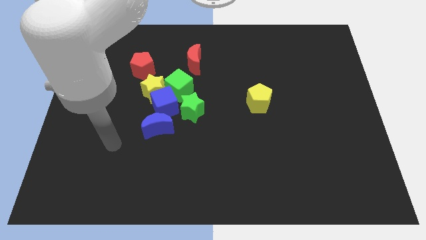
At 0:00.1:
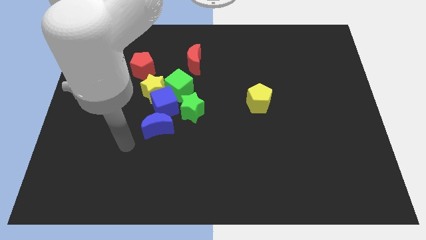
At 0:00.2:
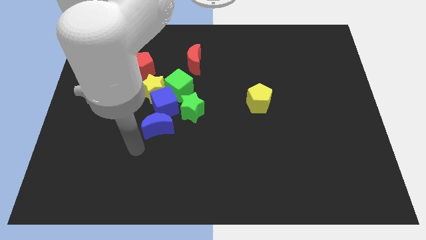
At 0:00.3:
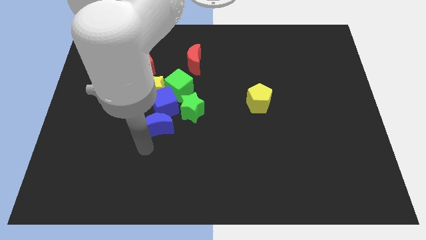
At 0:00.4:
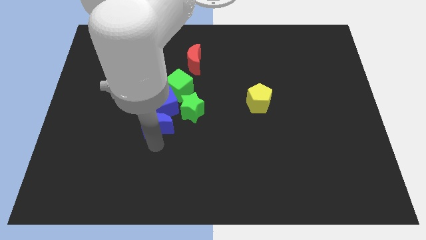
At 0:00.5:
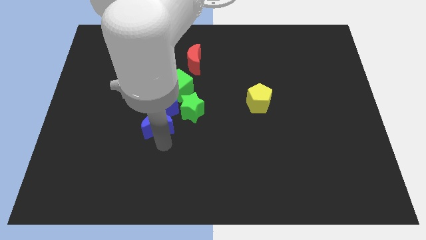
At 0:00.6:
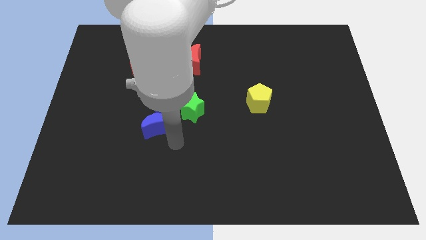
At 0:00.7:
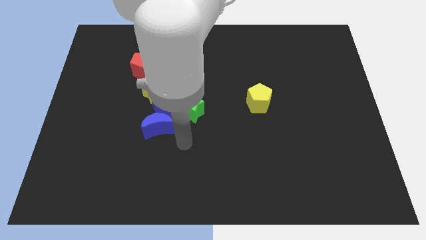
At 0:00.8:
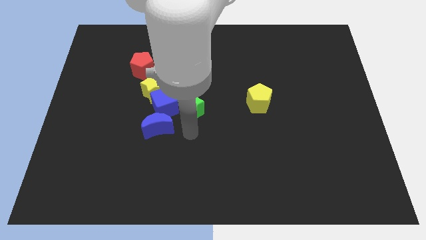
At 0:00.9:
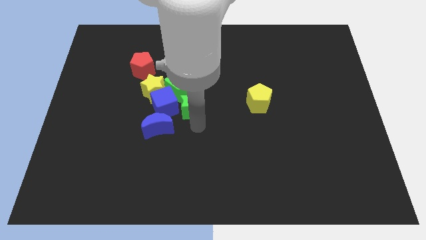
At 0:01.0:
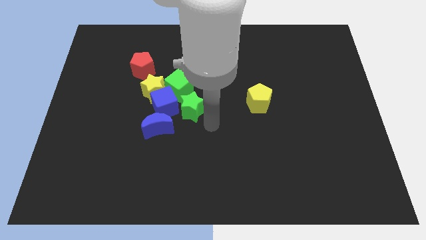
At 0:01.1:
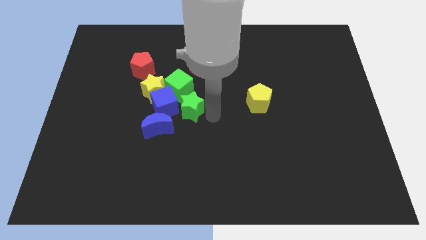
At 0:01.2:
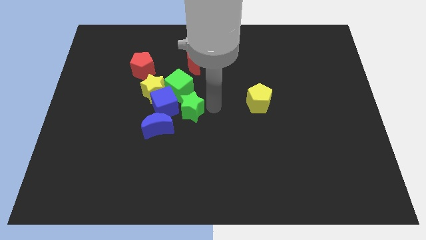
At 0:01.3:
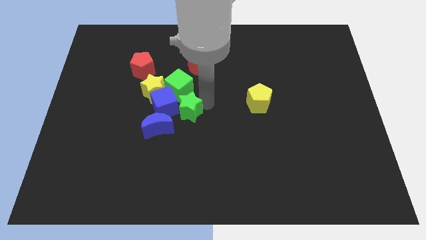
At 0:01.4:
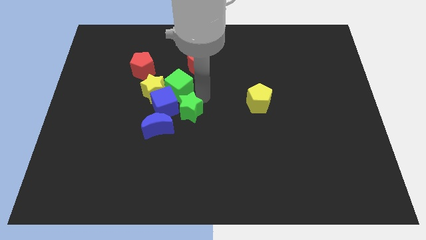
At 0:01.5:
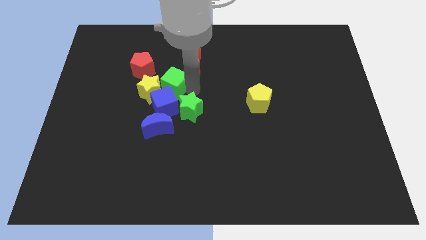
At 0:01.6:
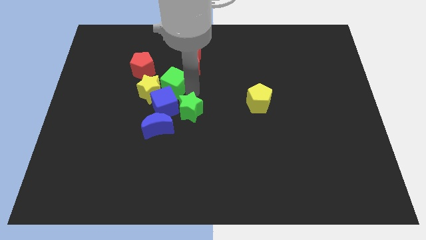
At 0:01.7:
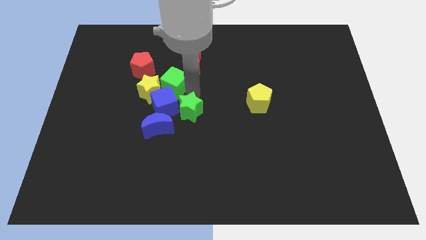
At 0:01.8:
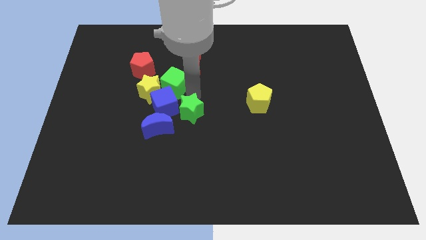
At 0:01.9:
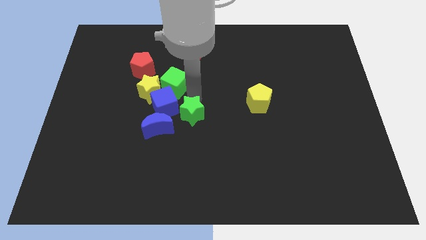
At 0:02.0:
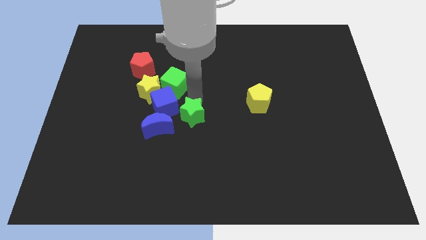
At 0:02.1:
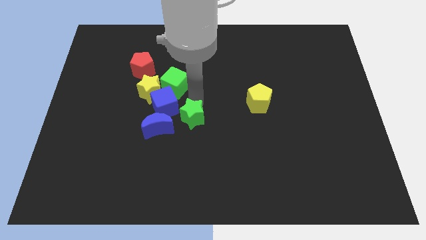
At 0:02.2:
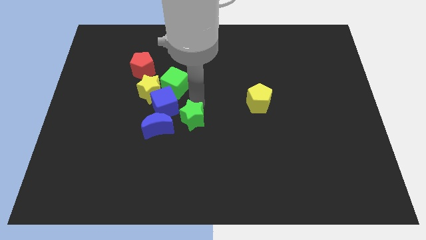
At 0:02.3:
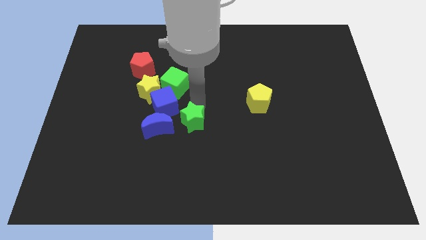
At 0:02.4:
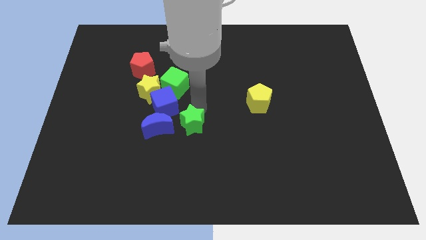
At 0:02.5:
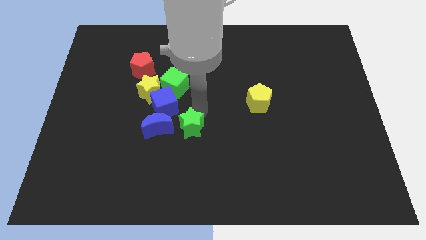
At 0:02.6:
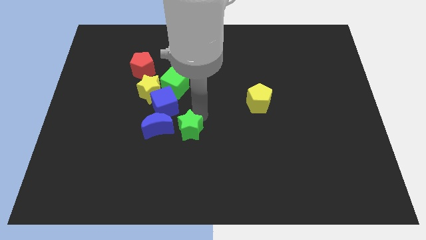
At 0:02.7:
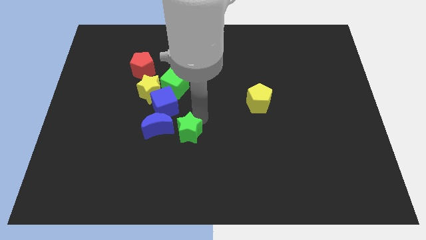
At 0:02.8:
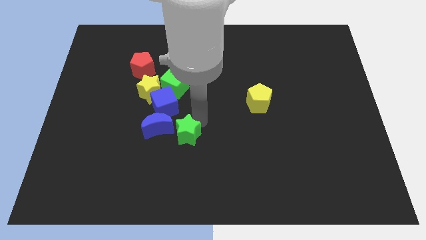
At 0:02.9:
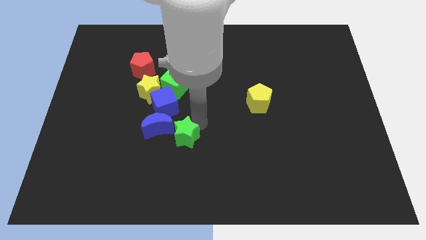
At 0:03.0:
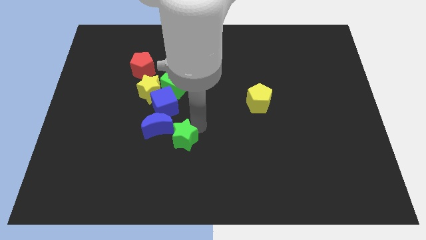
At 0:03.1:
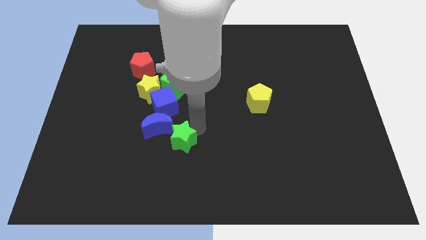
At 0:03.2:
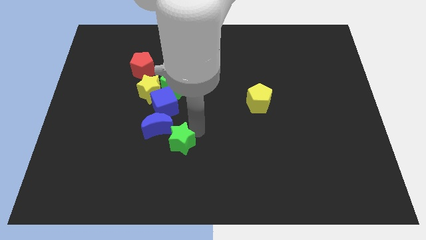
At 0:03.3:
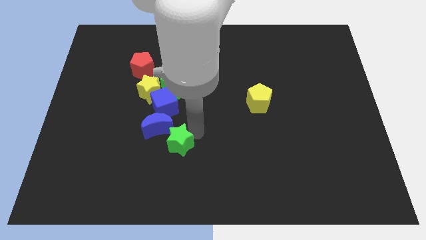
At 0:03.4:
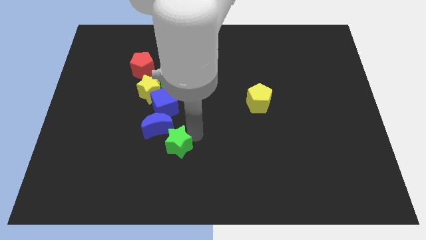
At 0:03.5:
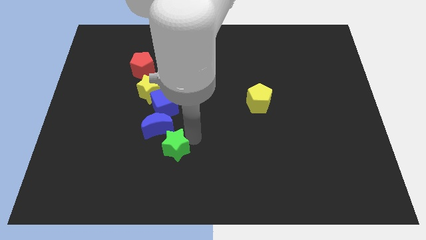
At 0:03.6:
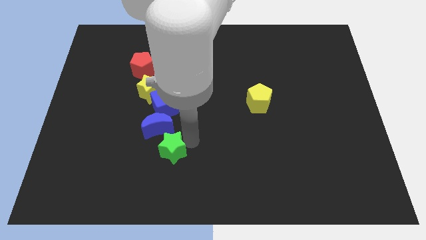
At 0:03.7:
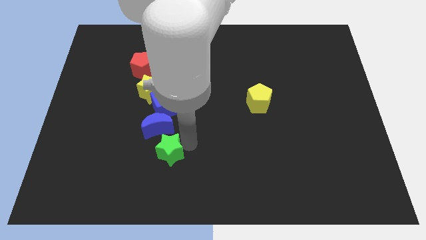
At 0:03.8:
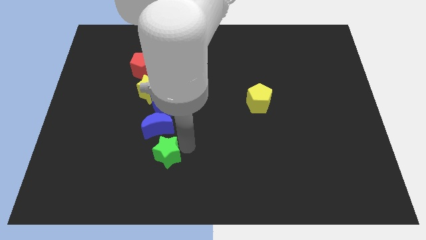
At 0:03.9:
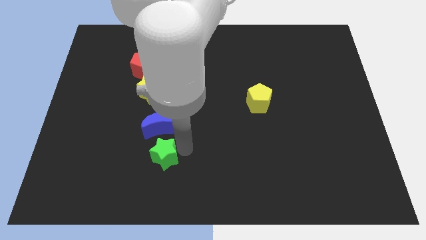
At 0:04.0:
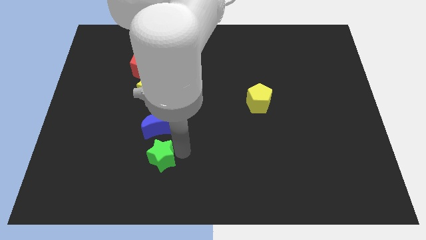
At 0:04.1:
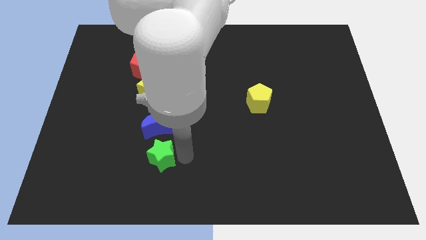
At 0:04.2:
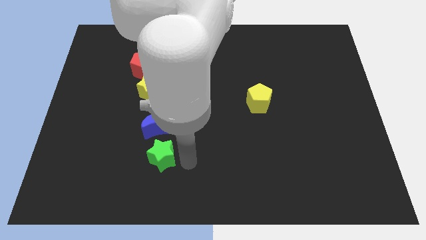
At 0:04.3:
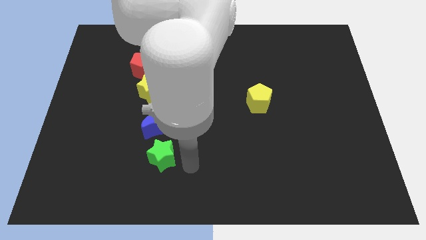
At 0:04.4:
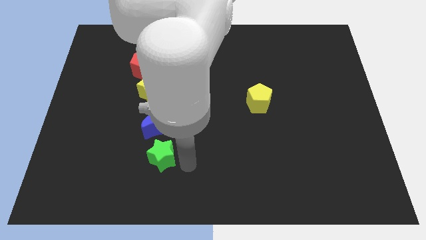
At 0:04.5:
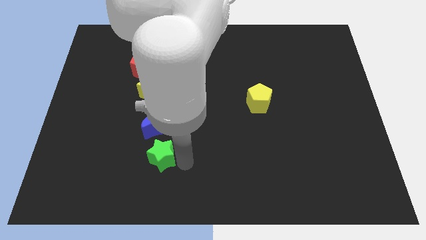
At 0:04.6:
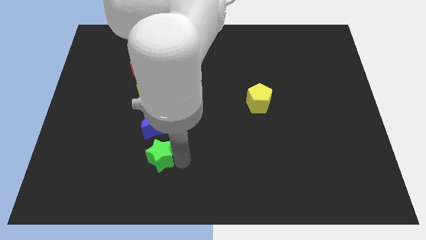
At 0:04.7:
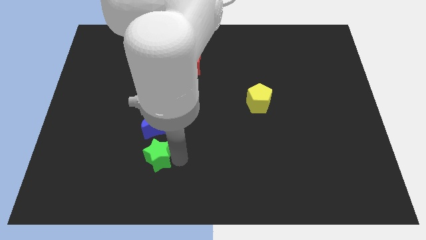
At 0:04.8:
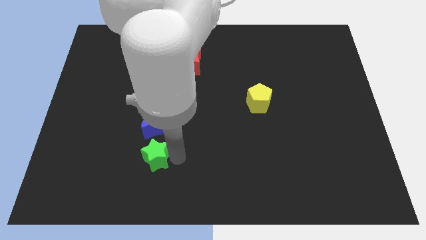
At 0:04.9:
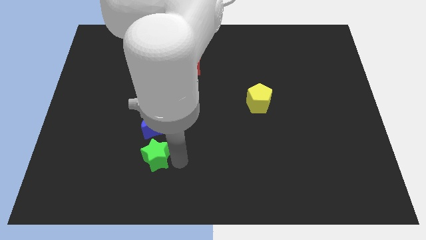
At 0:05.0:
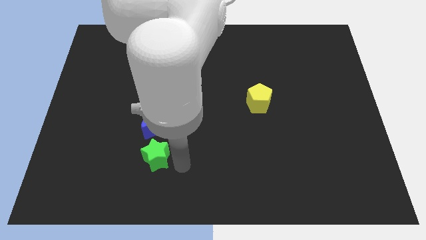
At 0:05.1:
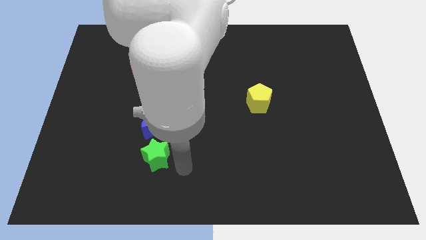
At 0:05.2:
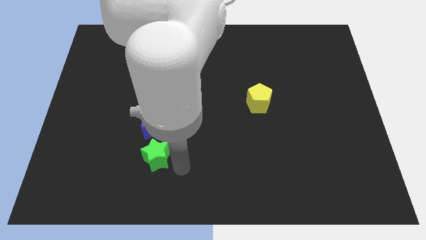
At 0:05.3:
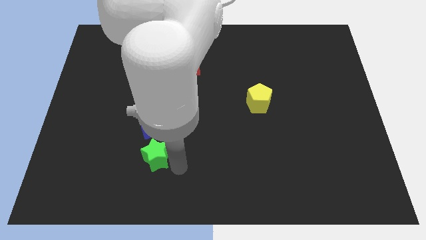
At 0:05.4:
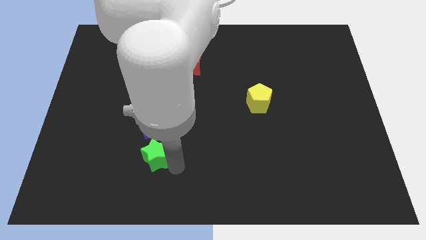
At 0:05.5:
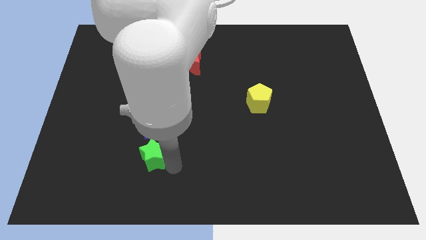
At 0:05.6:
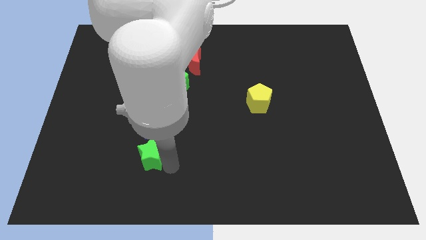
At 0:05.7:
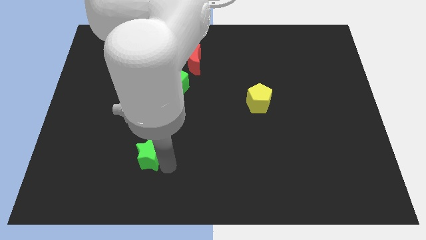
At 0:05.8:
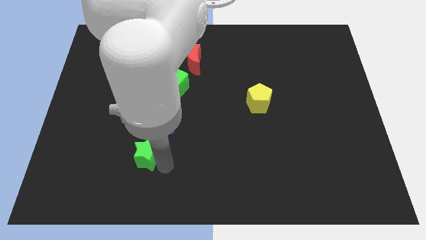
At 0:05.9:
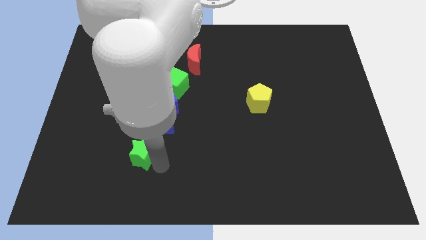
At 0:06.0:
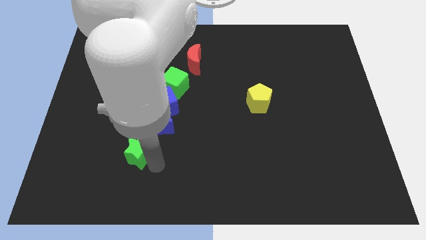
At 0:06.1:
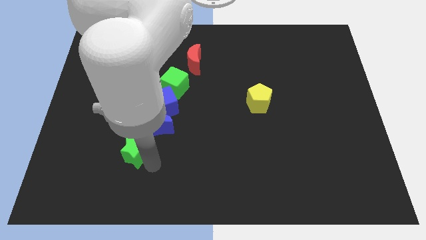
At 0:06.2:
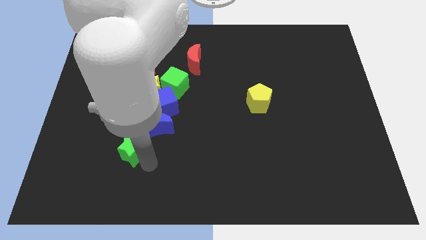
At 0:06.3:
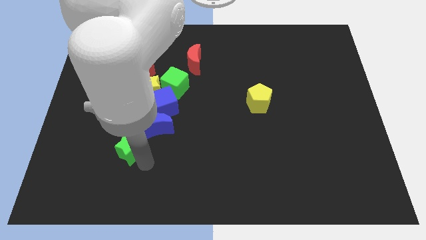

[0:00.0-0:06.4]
push the green star a little bit left

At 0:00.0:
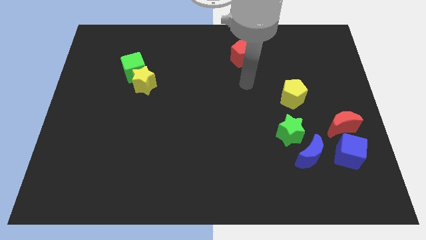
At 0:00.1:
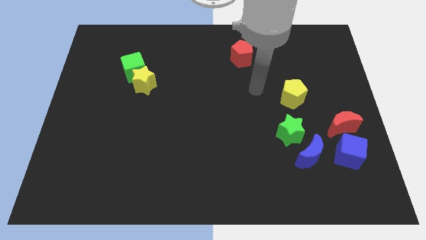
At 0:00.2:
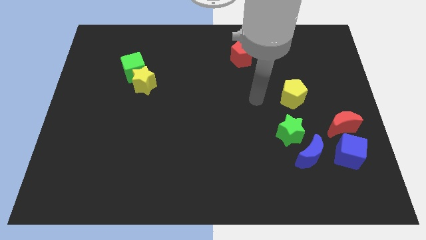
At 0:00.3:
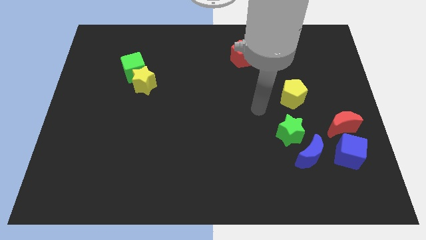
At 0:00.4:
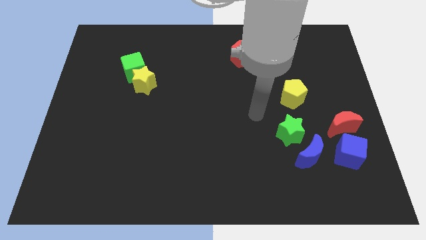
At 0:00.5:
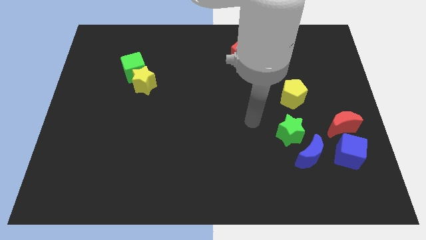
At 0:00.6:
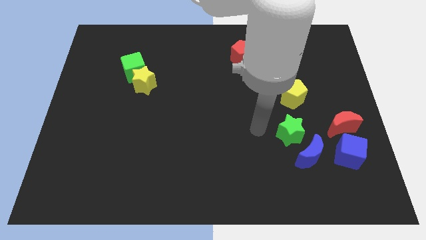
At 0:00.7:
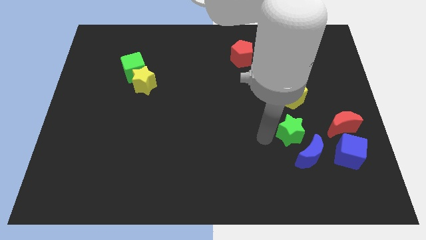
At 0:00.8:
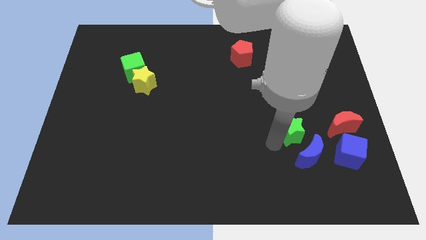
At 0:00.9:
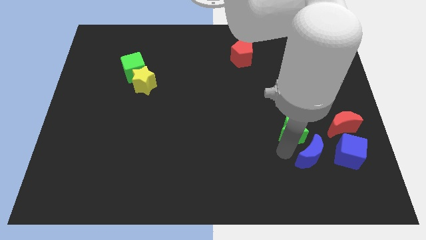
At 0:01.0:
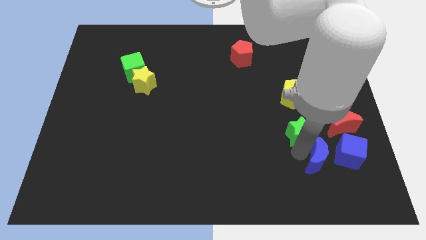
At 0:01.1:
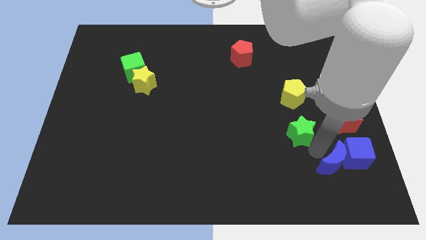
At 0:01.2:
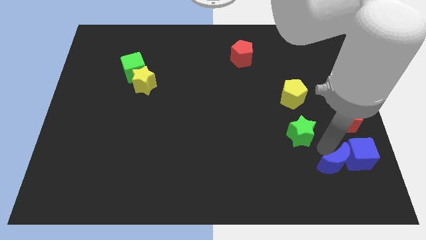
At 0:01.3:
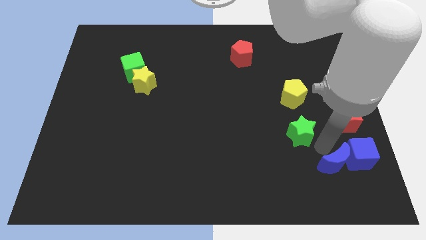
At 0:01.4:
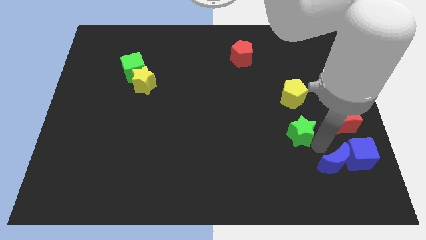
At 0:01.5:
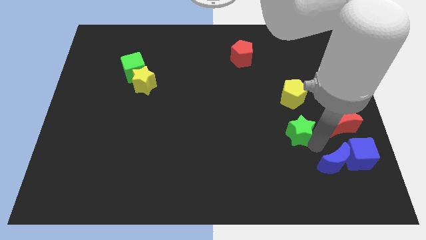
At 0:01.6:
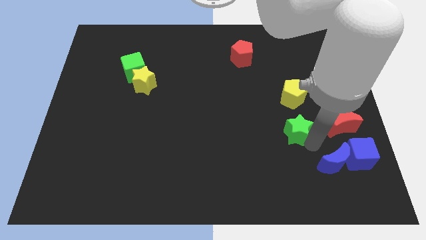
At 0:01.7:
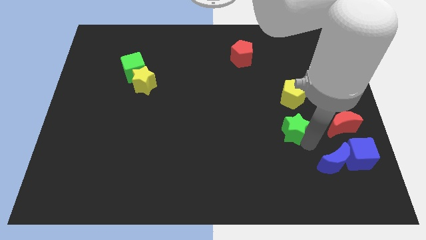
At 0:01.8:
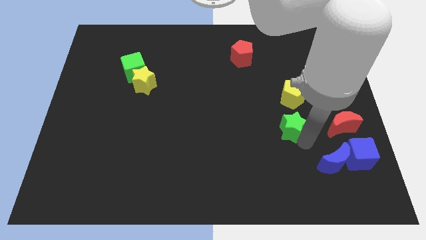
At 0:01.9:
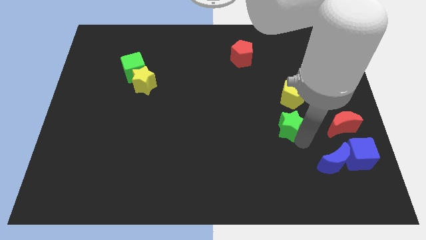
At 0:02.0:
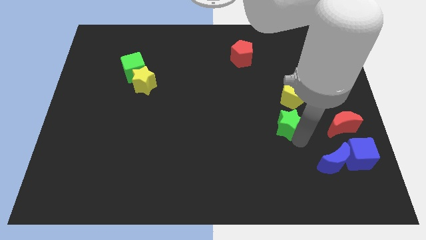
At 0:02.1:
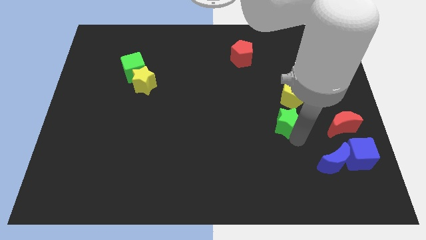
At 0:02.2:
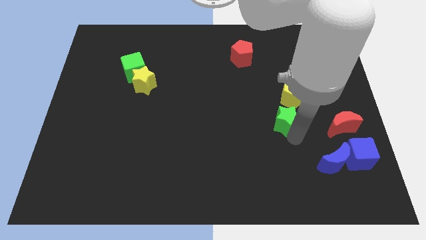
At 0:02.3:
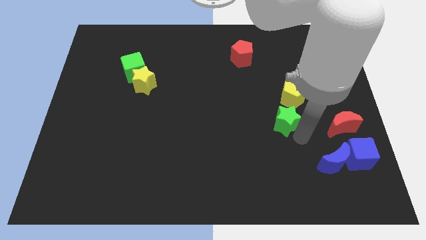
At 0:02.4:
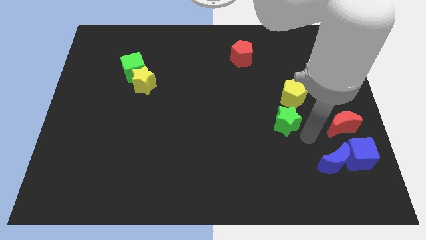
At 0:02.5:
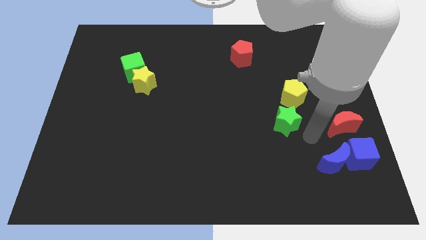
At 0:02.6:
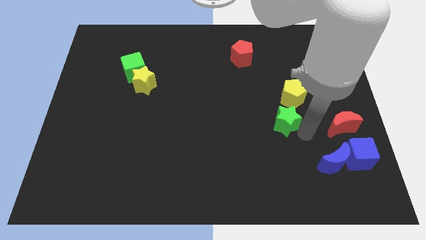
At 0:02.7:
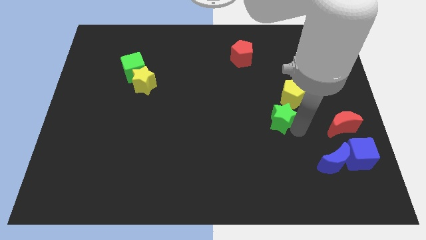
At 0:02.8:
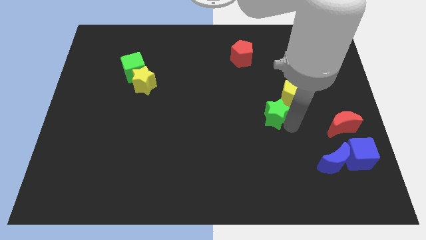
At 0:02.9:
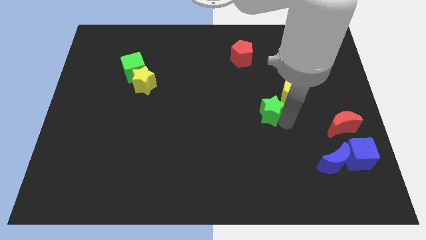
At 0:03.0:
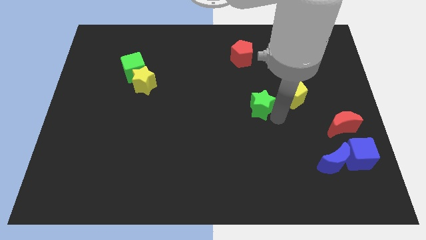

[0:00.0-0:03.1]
slightly slide the green star upwards and left
